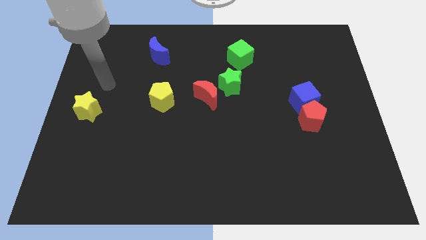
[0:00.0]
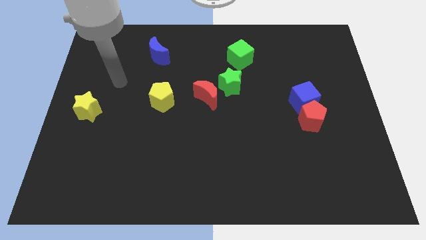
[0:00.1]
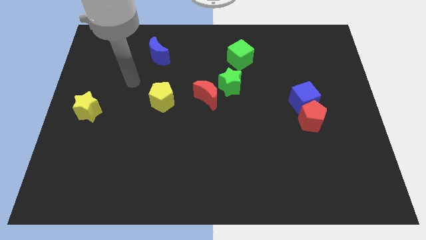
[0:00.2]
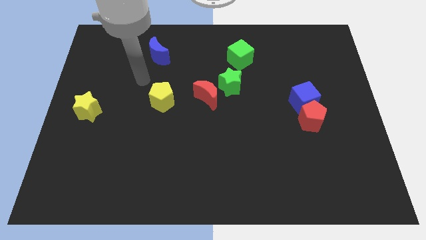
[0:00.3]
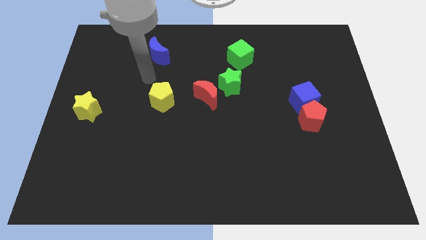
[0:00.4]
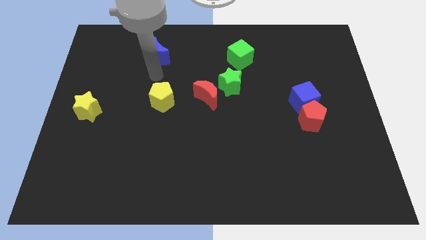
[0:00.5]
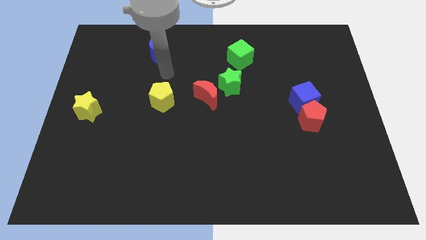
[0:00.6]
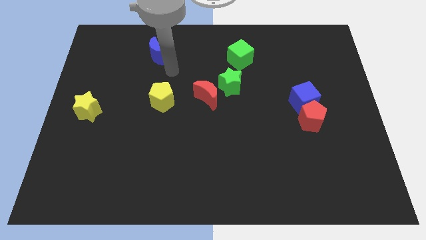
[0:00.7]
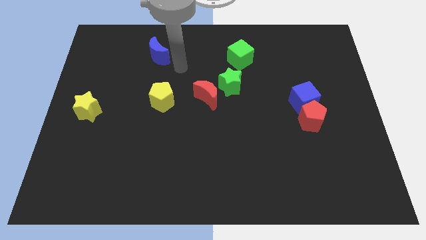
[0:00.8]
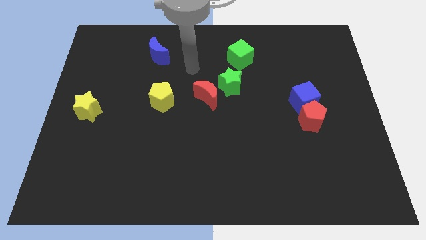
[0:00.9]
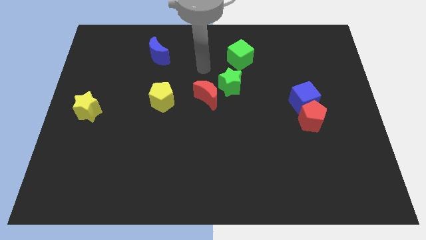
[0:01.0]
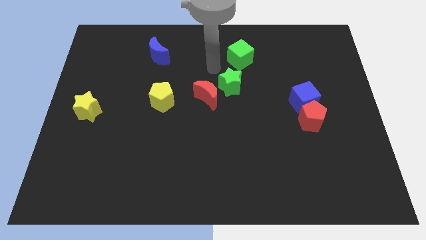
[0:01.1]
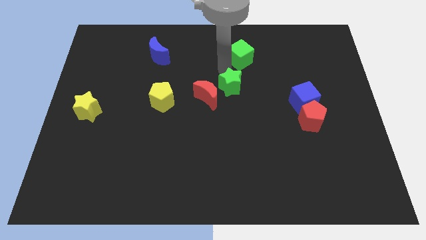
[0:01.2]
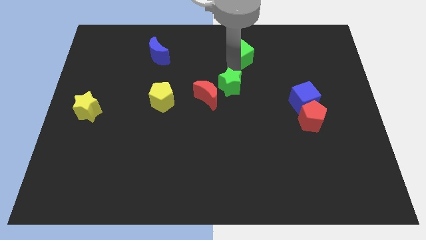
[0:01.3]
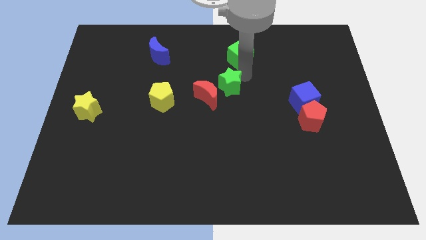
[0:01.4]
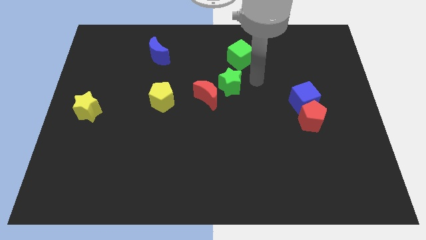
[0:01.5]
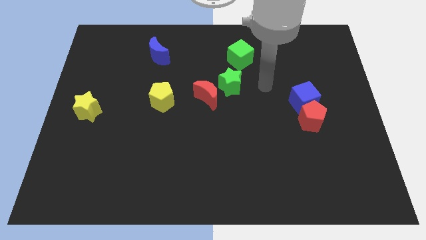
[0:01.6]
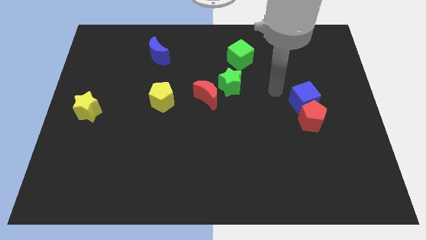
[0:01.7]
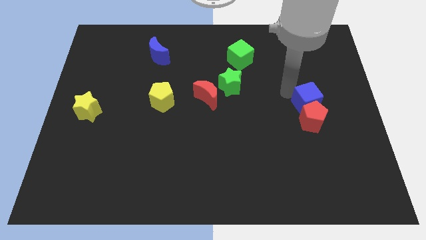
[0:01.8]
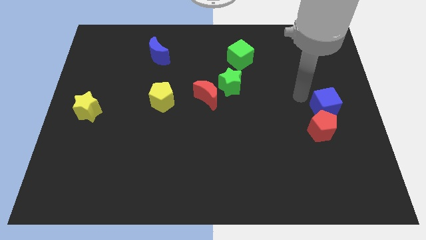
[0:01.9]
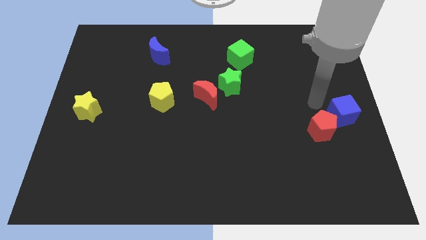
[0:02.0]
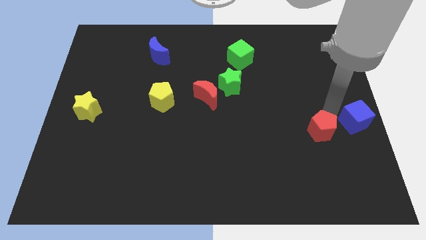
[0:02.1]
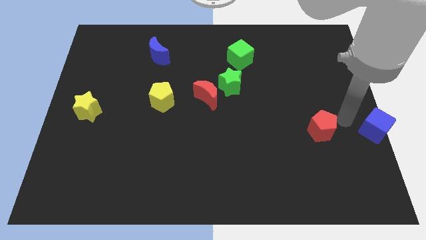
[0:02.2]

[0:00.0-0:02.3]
move the red pentagon away from the blue cube

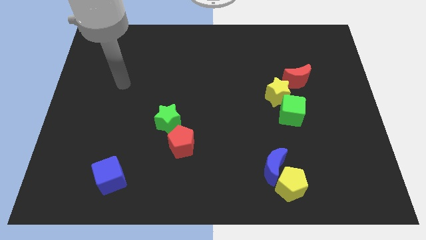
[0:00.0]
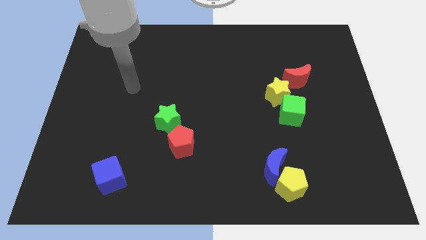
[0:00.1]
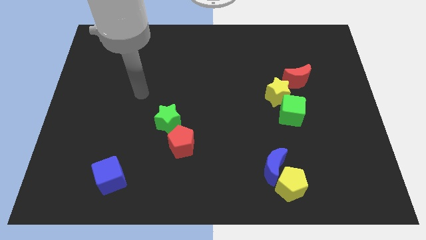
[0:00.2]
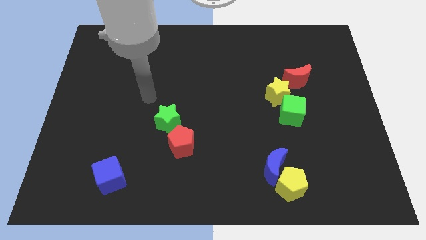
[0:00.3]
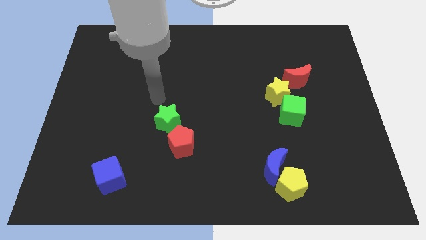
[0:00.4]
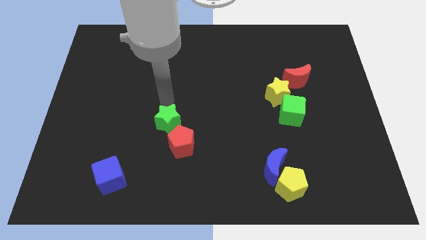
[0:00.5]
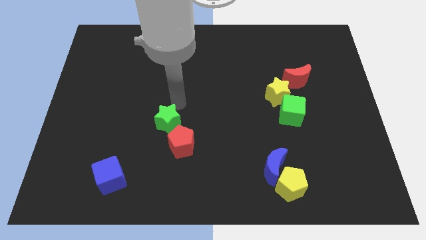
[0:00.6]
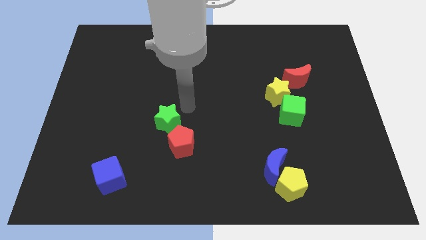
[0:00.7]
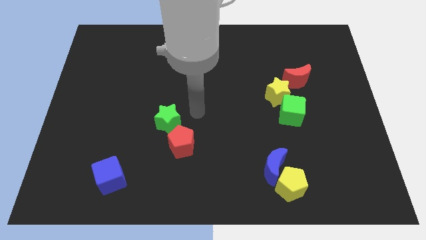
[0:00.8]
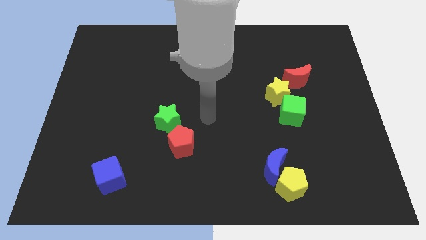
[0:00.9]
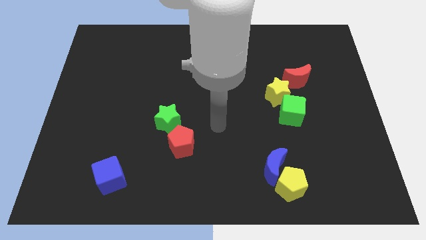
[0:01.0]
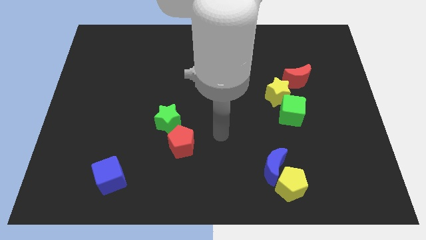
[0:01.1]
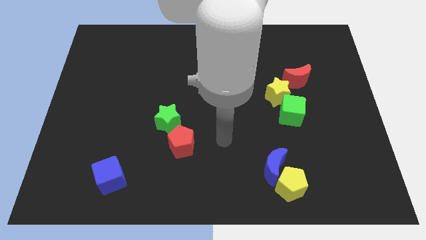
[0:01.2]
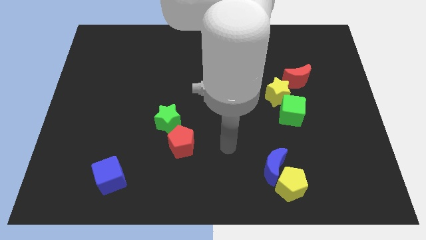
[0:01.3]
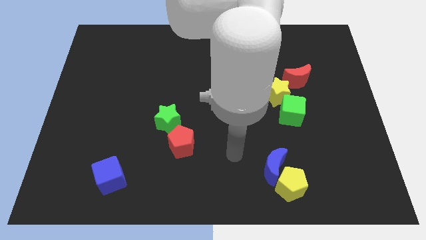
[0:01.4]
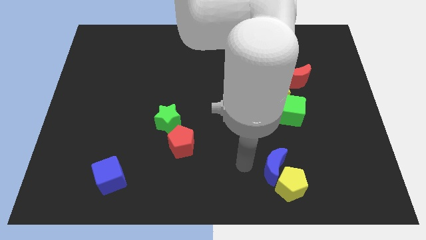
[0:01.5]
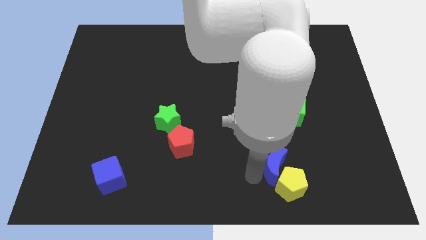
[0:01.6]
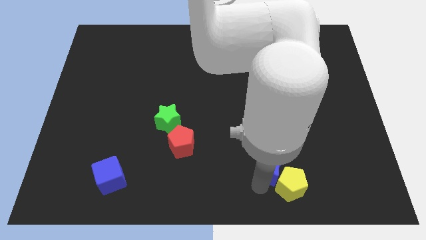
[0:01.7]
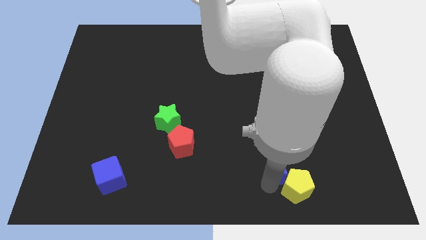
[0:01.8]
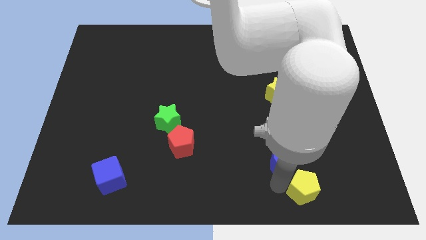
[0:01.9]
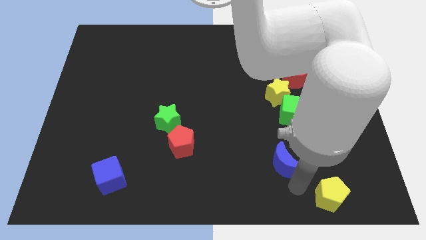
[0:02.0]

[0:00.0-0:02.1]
move the blue moon away from the yellow pentagon

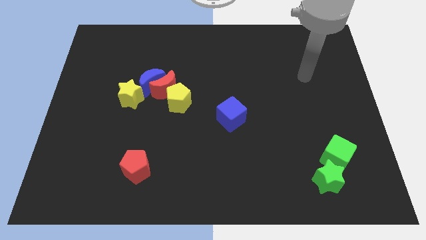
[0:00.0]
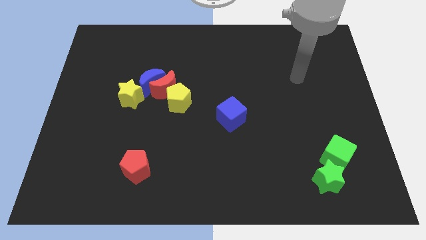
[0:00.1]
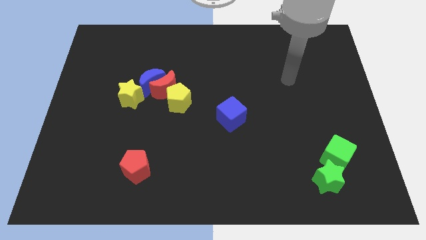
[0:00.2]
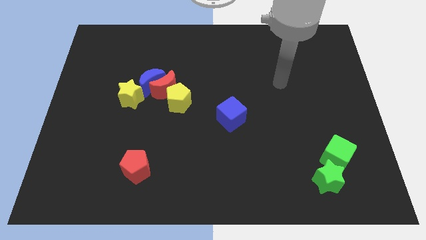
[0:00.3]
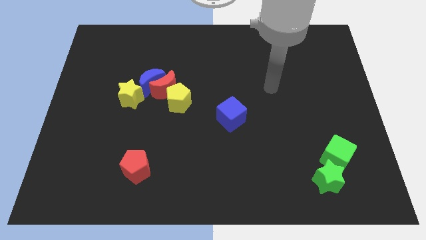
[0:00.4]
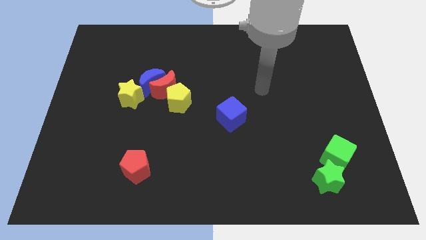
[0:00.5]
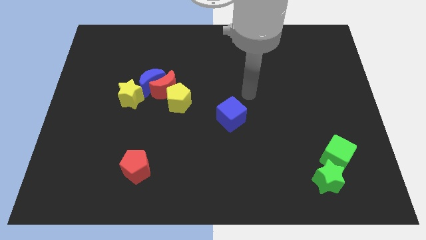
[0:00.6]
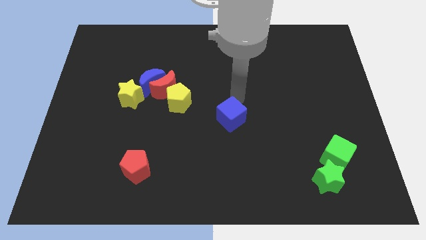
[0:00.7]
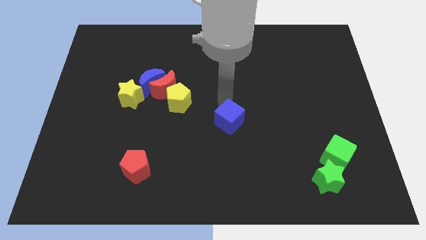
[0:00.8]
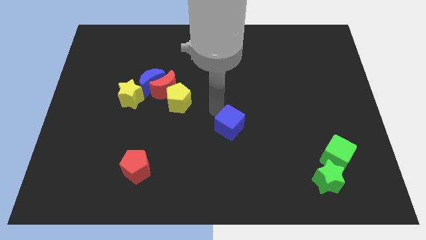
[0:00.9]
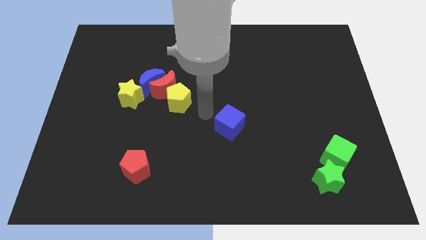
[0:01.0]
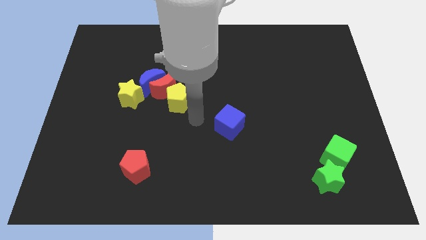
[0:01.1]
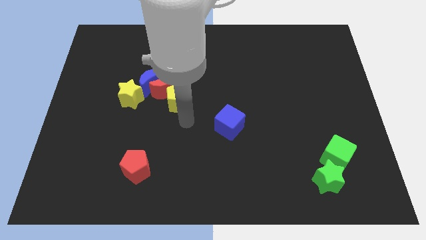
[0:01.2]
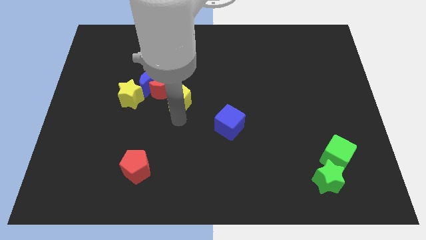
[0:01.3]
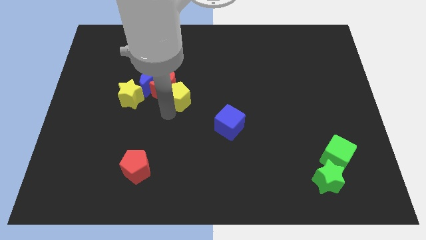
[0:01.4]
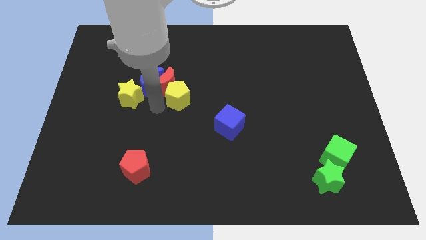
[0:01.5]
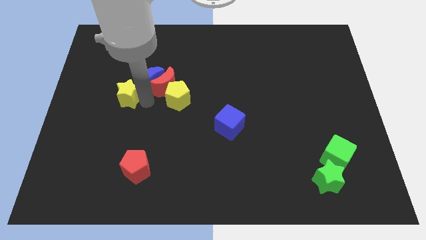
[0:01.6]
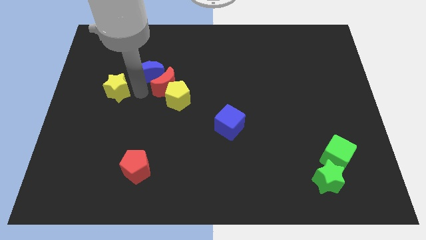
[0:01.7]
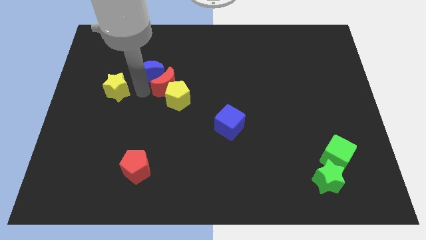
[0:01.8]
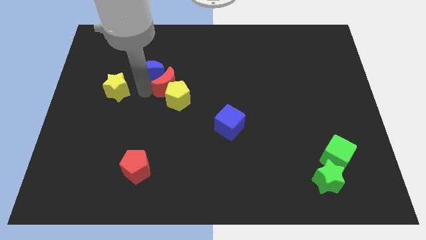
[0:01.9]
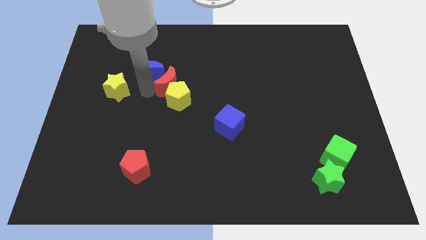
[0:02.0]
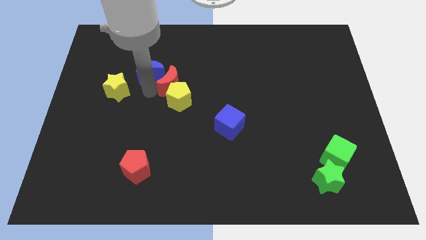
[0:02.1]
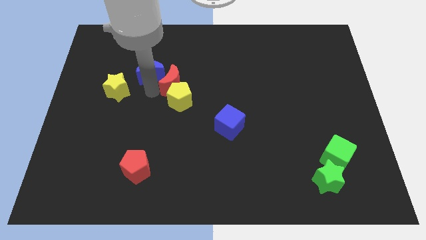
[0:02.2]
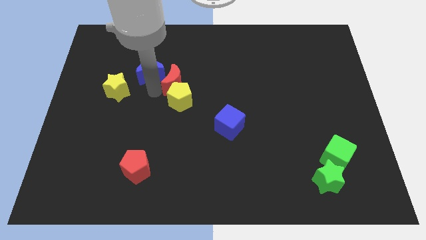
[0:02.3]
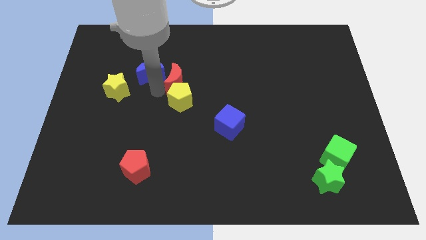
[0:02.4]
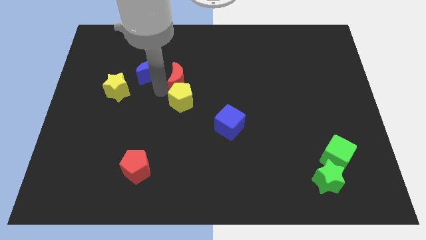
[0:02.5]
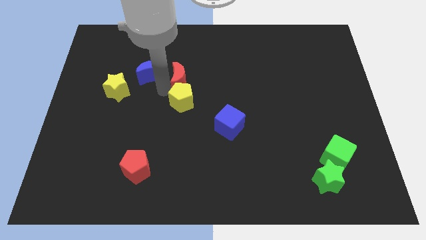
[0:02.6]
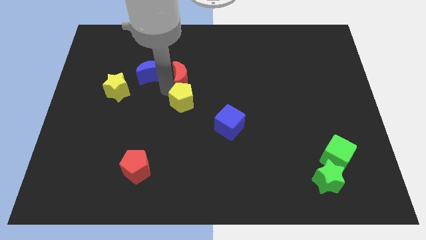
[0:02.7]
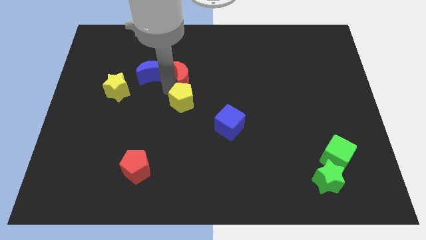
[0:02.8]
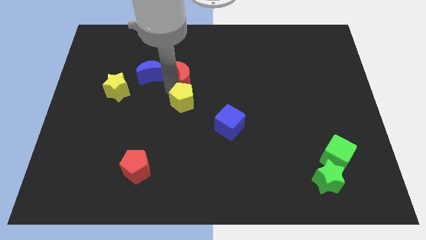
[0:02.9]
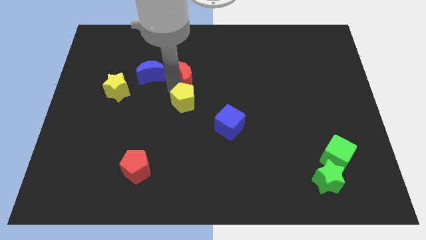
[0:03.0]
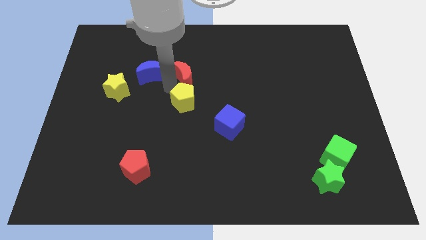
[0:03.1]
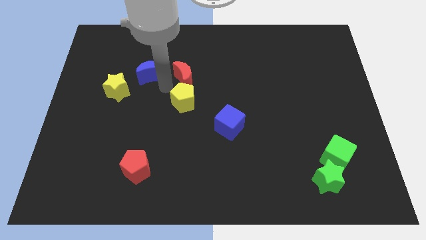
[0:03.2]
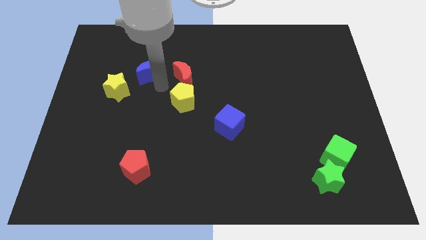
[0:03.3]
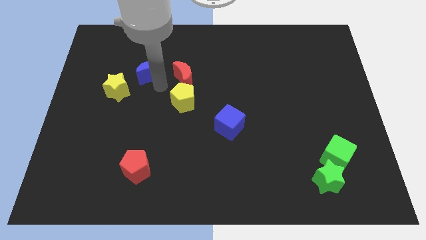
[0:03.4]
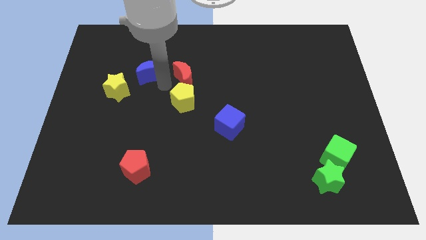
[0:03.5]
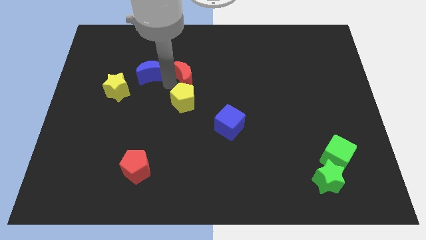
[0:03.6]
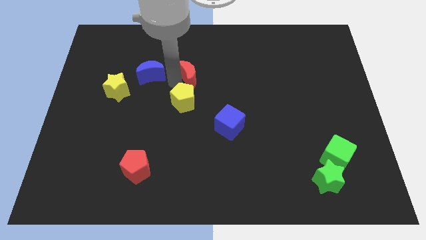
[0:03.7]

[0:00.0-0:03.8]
pull the red moon apart from the blue moon, yellow pentagon, and yellow star

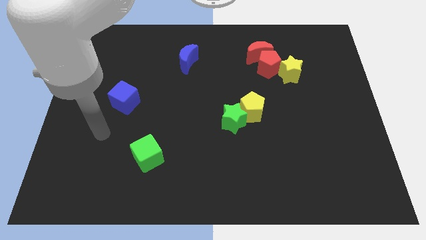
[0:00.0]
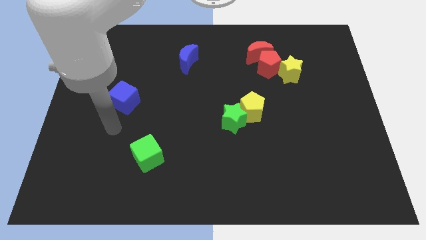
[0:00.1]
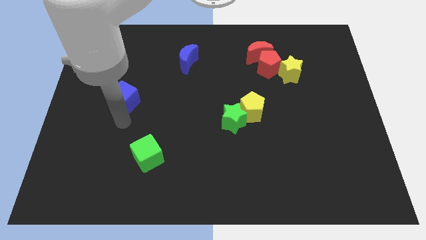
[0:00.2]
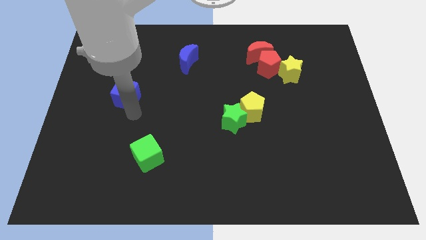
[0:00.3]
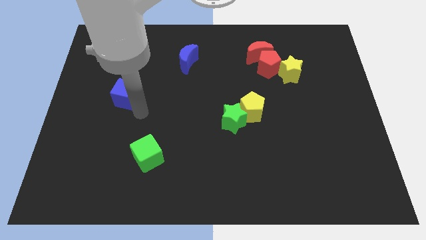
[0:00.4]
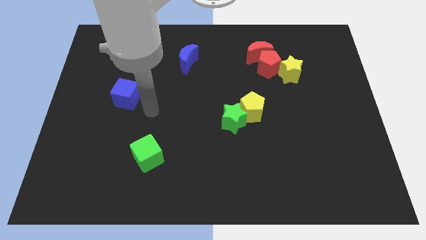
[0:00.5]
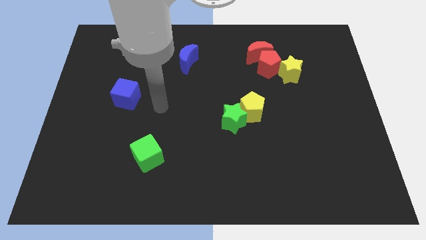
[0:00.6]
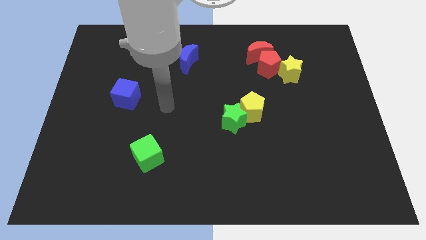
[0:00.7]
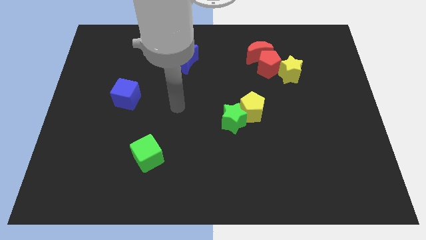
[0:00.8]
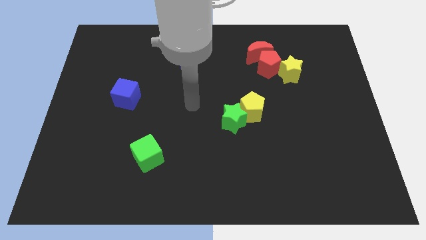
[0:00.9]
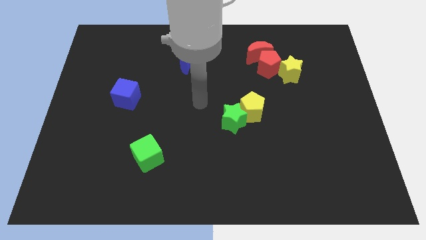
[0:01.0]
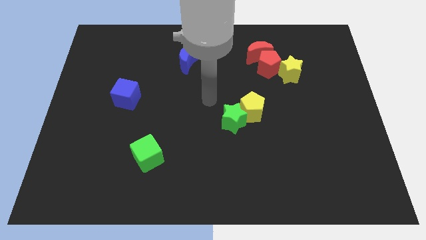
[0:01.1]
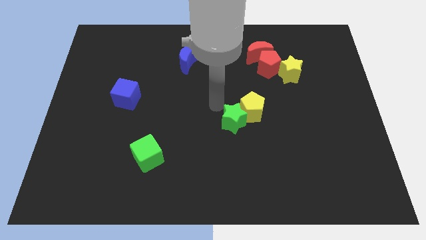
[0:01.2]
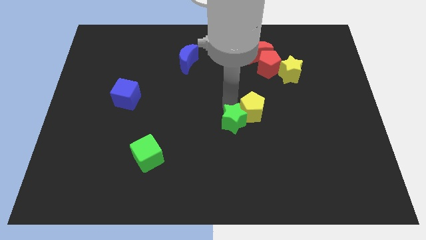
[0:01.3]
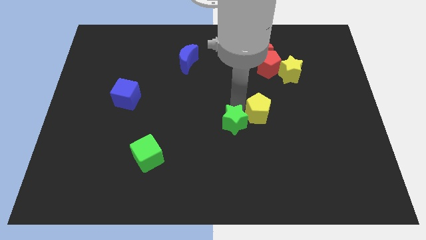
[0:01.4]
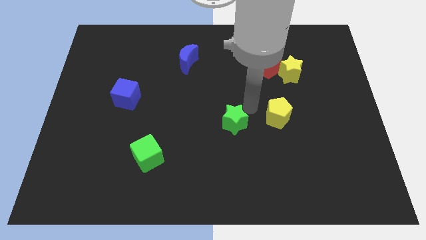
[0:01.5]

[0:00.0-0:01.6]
pull the green star apart from the yellow pentagon
